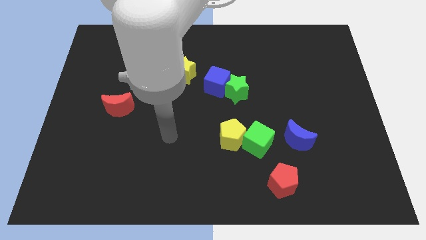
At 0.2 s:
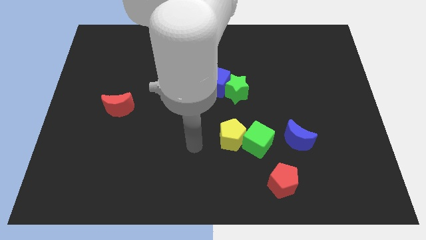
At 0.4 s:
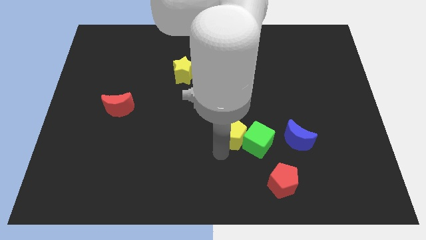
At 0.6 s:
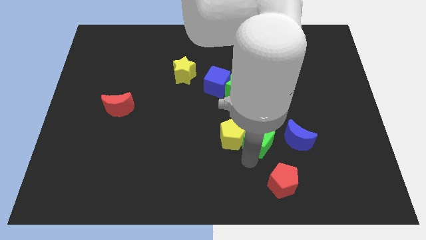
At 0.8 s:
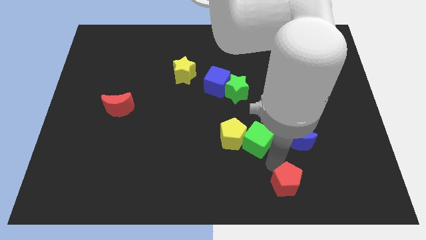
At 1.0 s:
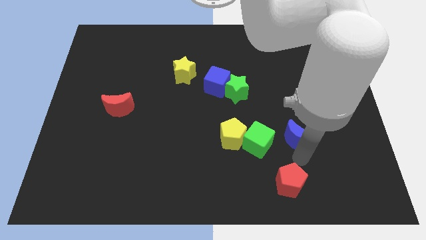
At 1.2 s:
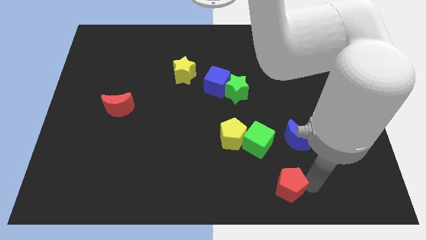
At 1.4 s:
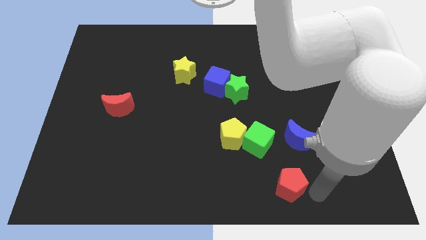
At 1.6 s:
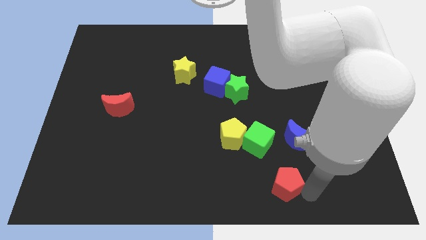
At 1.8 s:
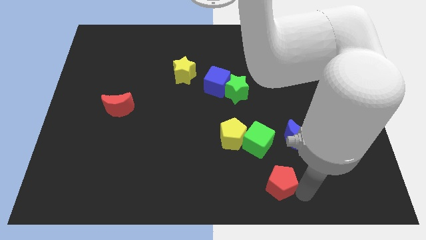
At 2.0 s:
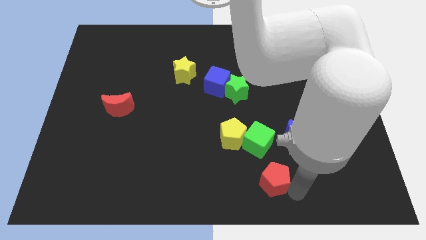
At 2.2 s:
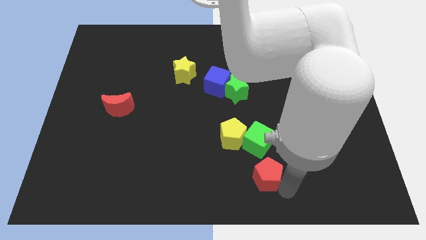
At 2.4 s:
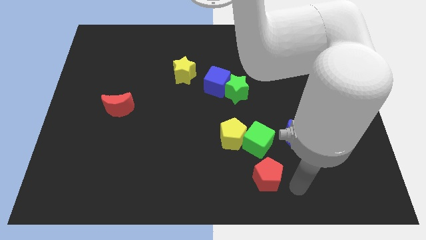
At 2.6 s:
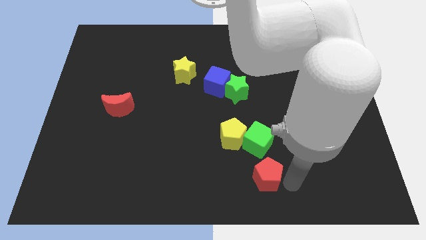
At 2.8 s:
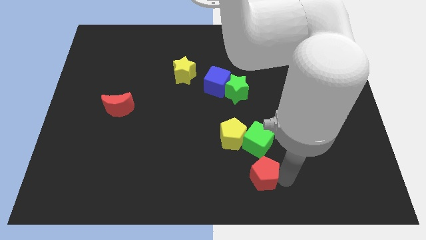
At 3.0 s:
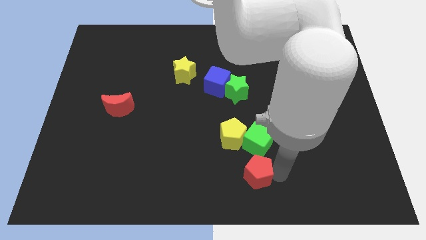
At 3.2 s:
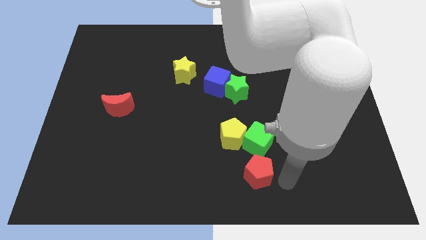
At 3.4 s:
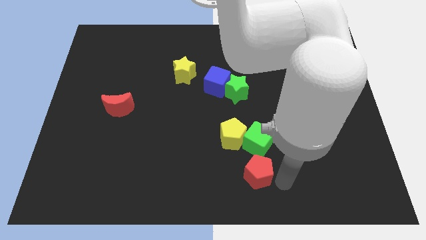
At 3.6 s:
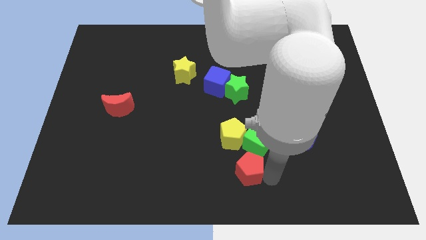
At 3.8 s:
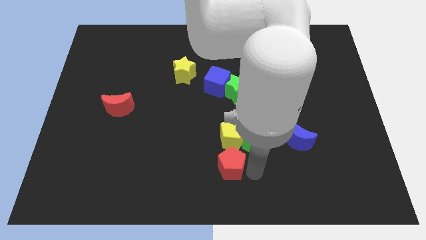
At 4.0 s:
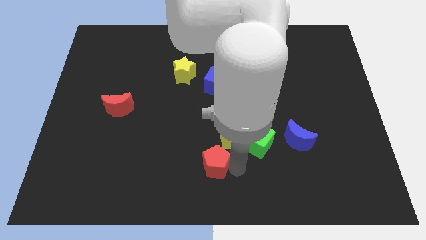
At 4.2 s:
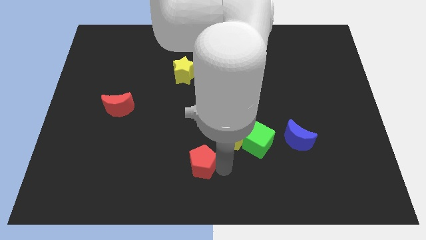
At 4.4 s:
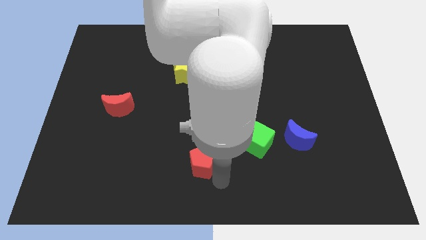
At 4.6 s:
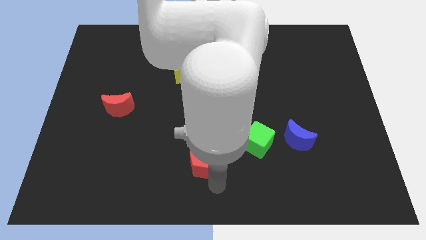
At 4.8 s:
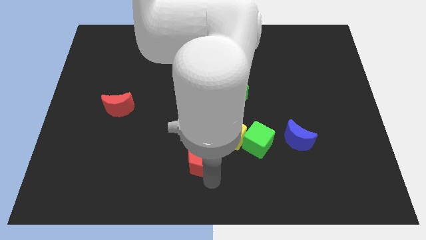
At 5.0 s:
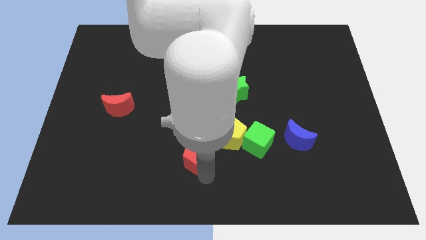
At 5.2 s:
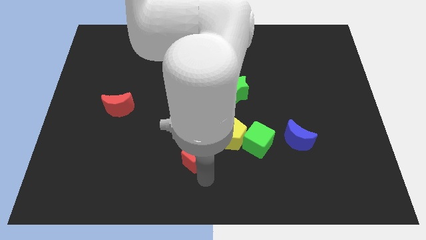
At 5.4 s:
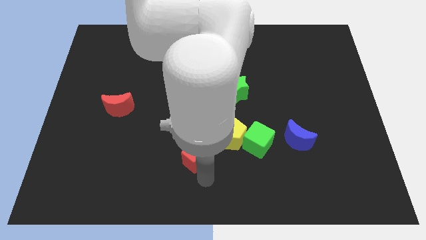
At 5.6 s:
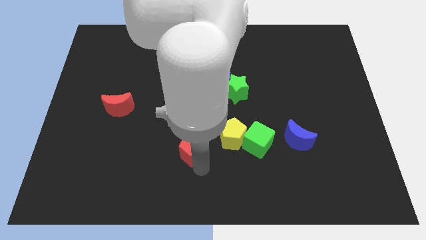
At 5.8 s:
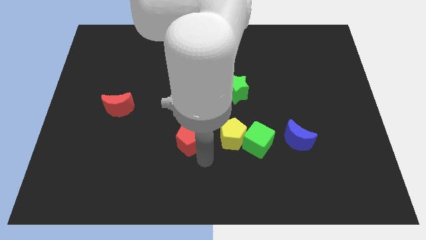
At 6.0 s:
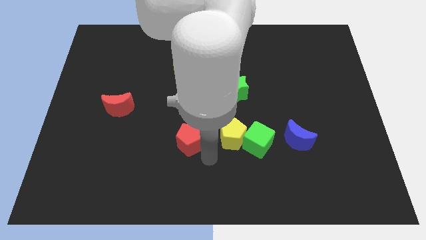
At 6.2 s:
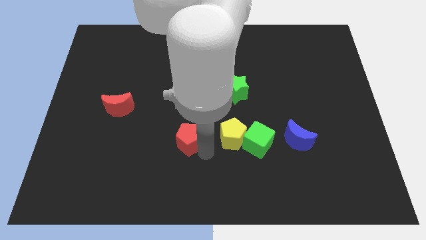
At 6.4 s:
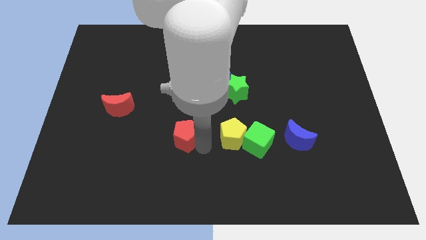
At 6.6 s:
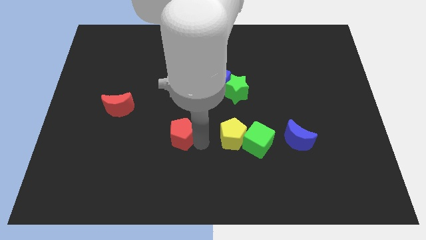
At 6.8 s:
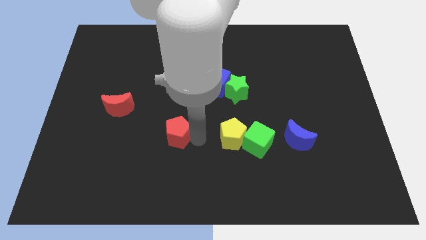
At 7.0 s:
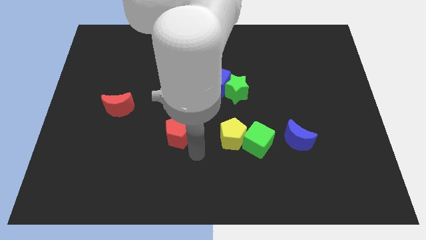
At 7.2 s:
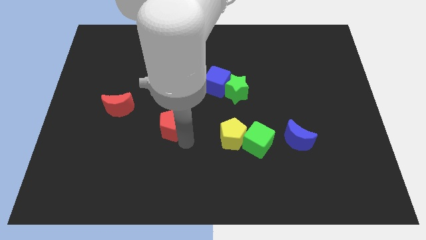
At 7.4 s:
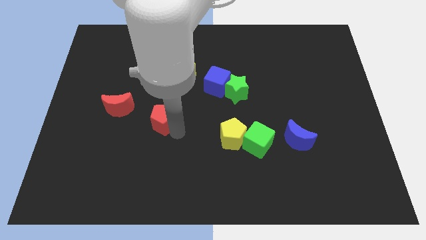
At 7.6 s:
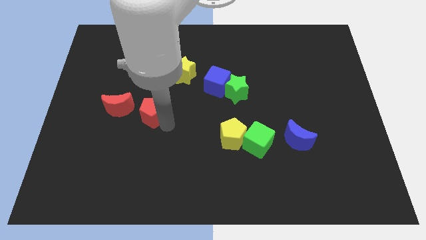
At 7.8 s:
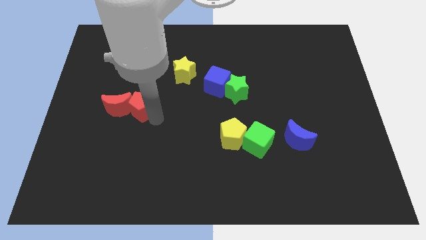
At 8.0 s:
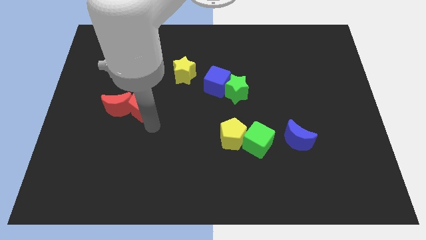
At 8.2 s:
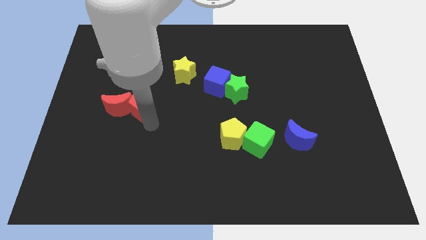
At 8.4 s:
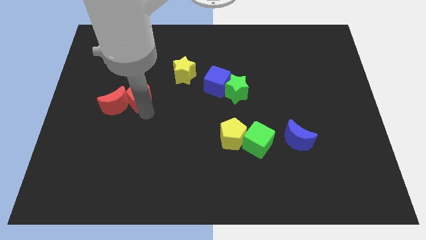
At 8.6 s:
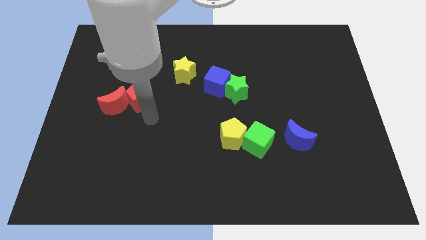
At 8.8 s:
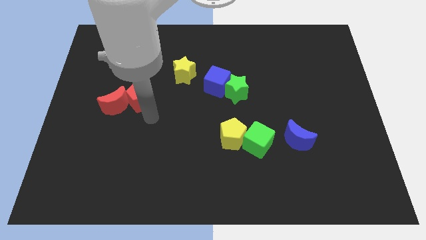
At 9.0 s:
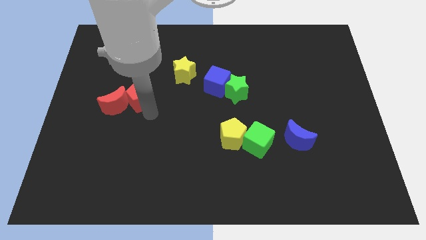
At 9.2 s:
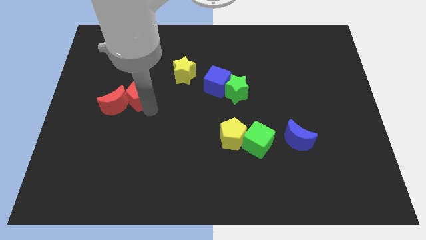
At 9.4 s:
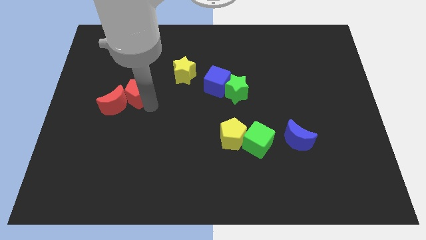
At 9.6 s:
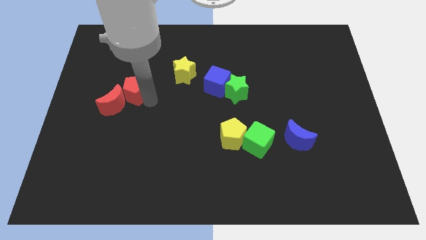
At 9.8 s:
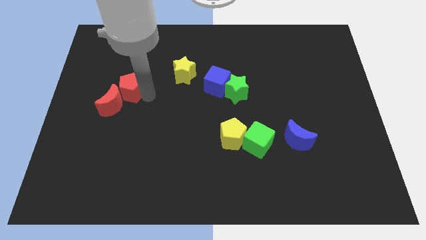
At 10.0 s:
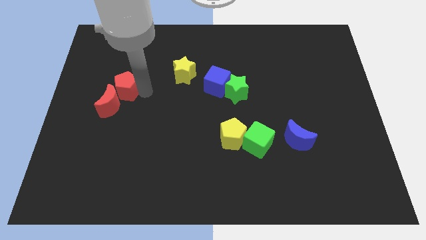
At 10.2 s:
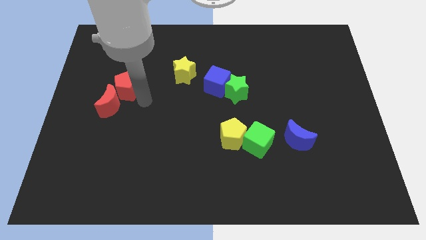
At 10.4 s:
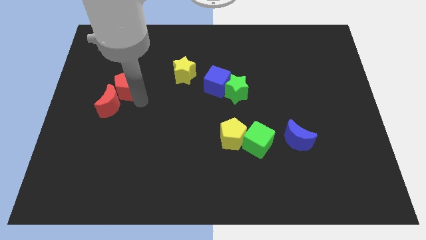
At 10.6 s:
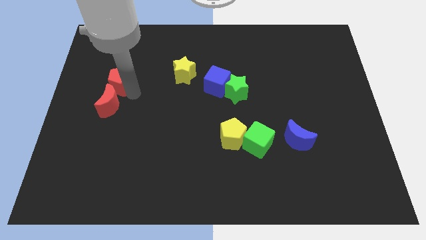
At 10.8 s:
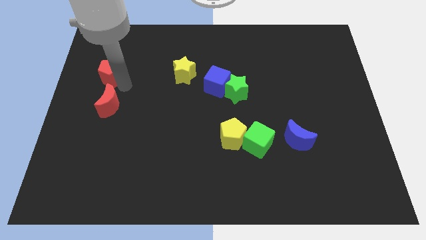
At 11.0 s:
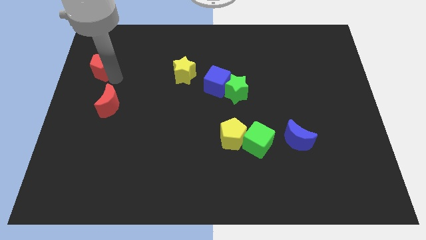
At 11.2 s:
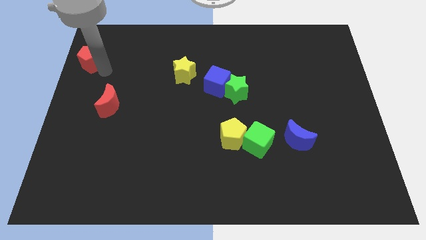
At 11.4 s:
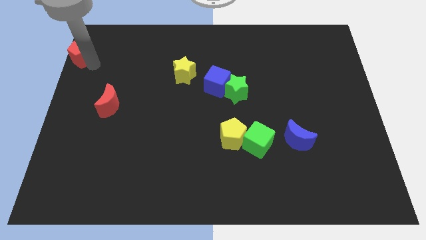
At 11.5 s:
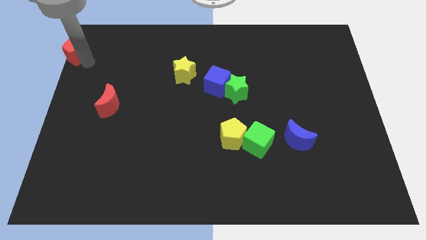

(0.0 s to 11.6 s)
slide the red pentagon to the upper left corner

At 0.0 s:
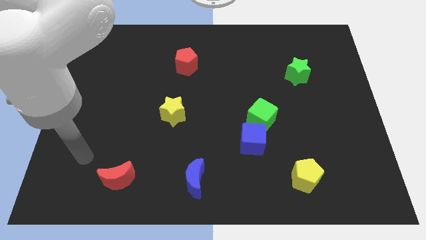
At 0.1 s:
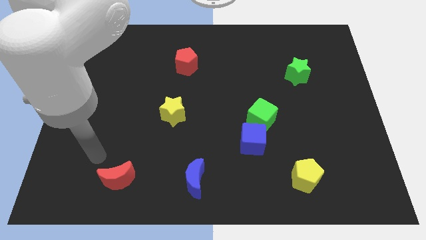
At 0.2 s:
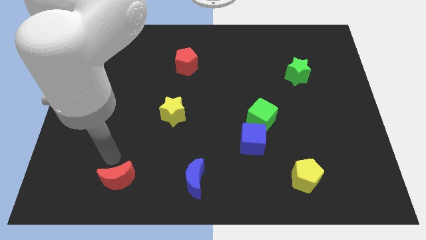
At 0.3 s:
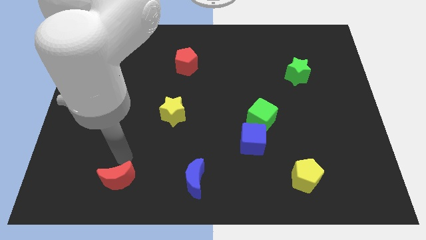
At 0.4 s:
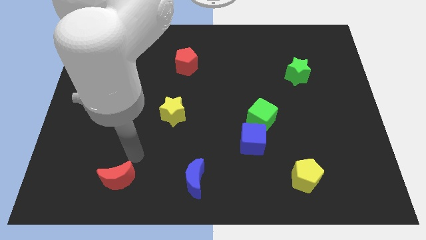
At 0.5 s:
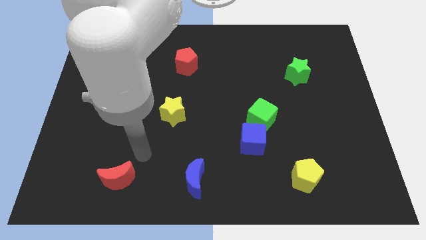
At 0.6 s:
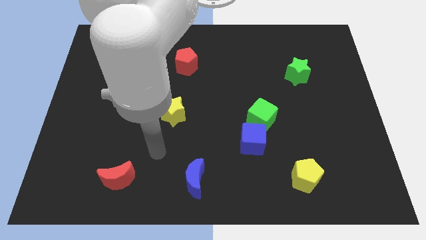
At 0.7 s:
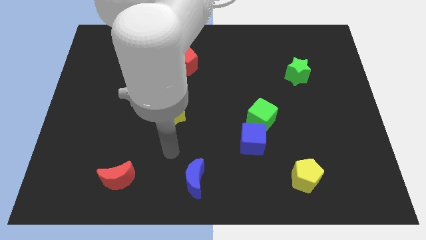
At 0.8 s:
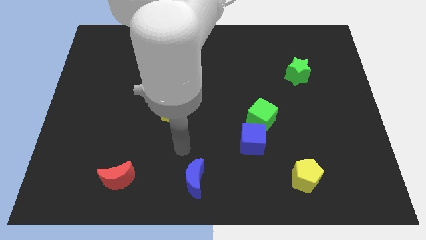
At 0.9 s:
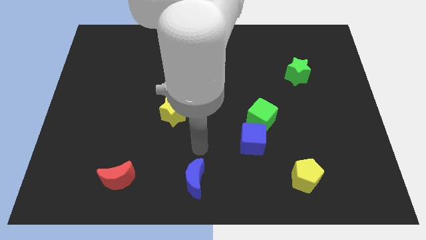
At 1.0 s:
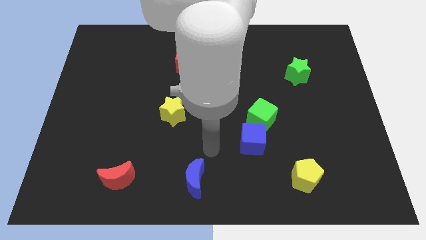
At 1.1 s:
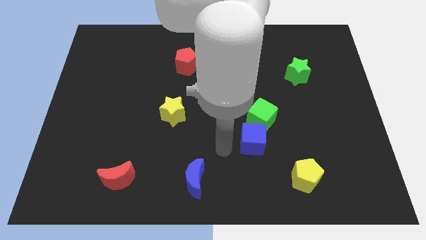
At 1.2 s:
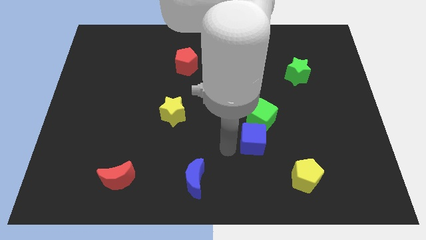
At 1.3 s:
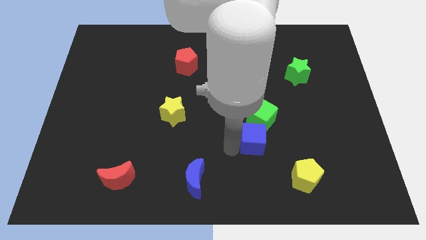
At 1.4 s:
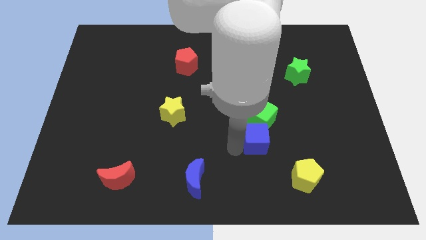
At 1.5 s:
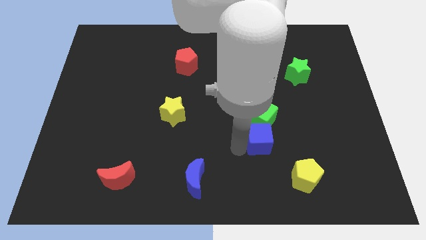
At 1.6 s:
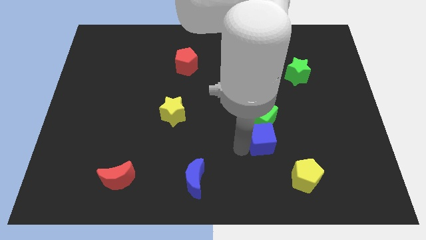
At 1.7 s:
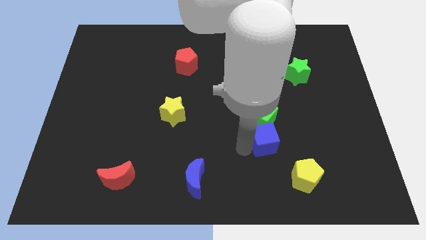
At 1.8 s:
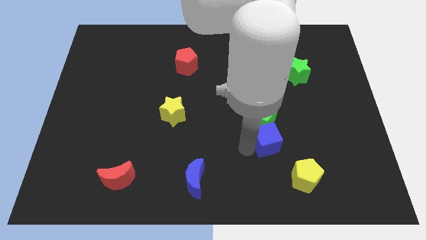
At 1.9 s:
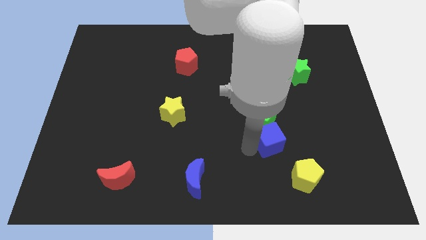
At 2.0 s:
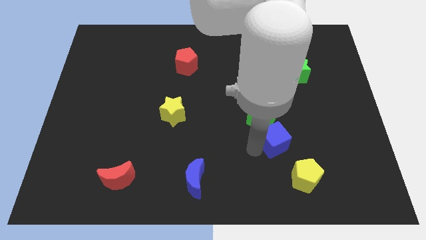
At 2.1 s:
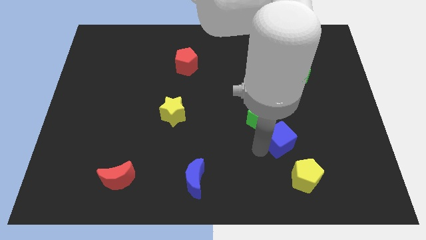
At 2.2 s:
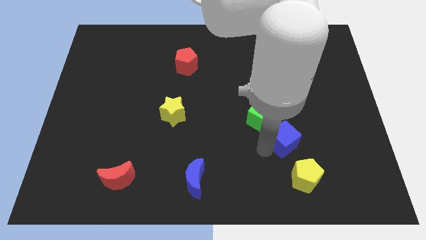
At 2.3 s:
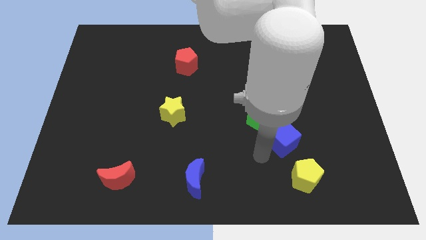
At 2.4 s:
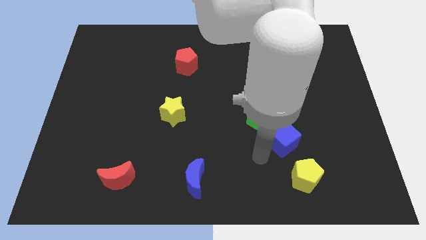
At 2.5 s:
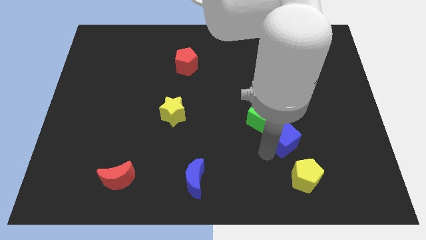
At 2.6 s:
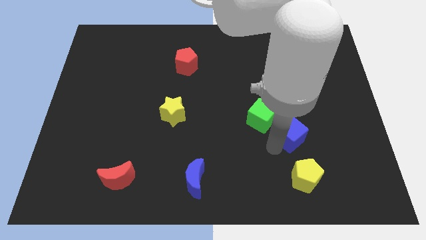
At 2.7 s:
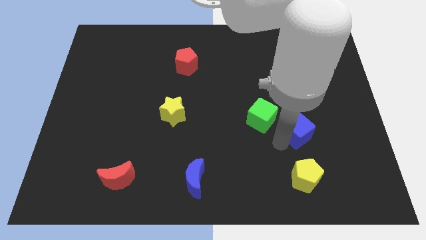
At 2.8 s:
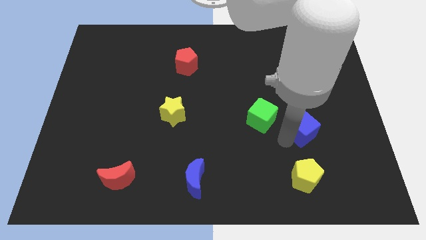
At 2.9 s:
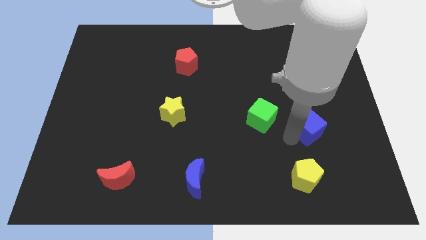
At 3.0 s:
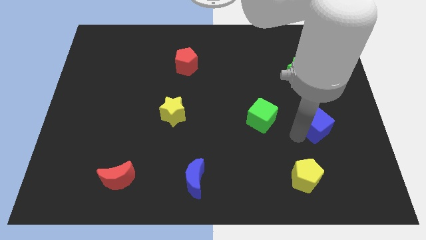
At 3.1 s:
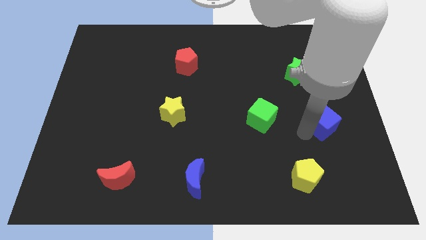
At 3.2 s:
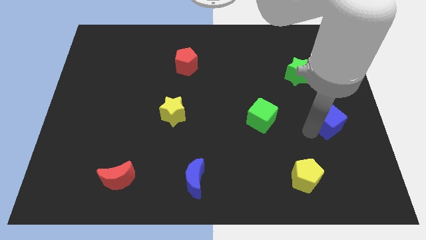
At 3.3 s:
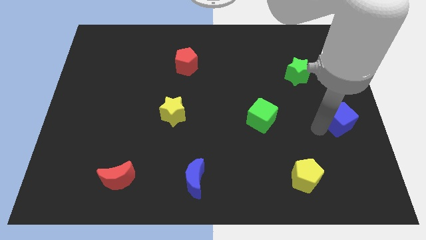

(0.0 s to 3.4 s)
put the blue cube to the right side
